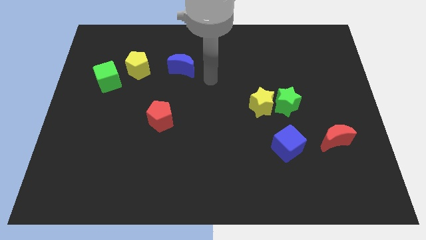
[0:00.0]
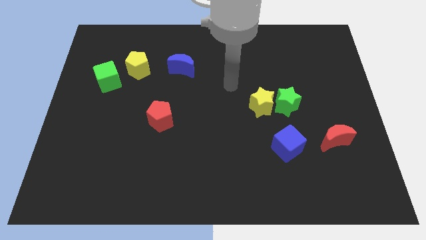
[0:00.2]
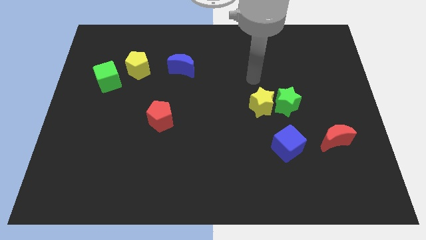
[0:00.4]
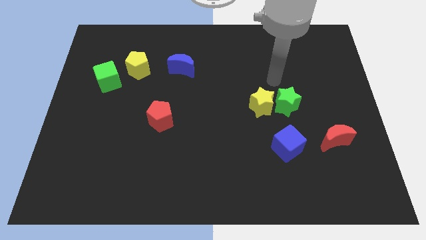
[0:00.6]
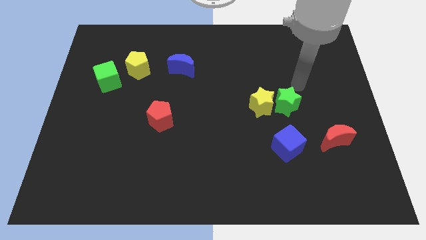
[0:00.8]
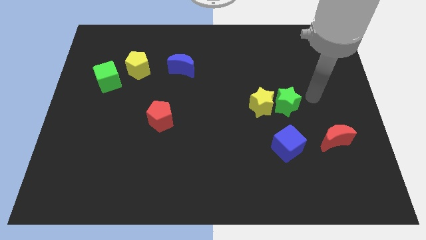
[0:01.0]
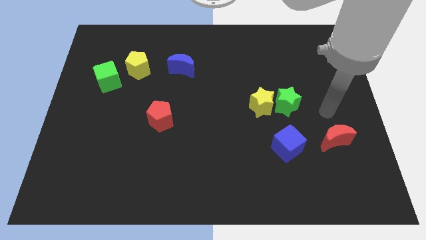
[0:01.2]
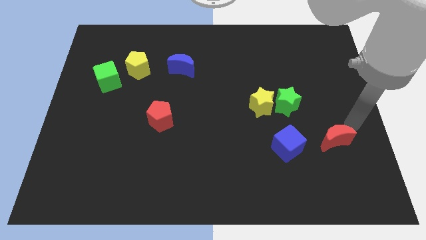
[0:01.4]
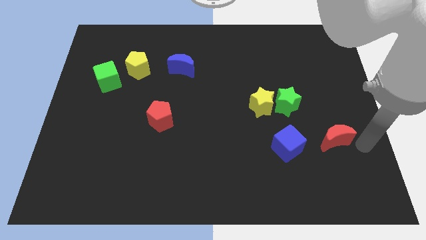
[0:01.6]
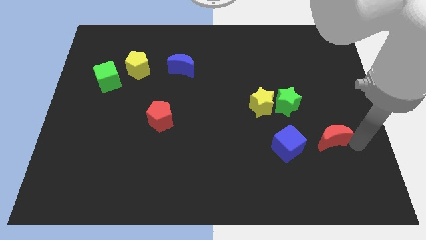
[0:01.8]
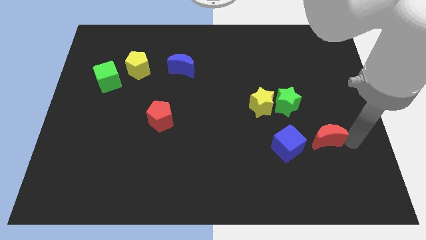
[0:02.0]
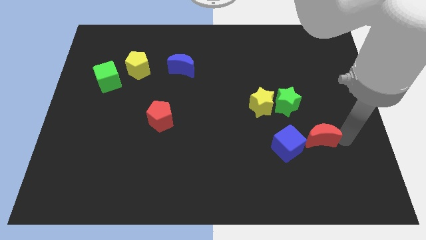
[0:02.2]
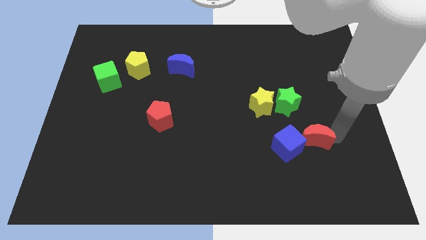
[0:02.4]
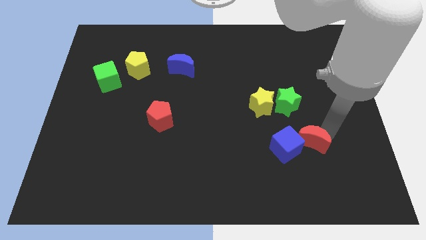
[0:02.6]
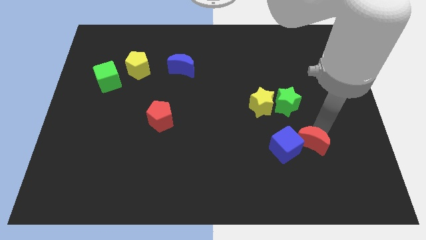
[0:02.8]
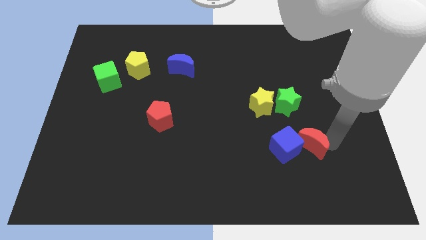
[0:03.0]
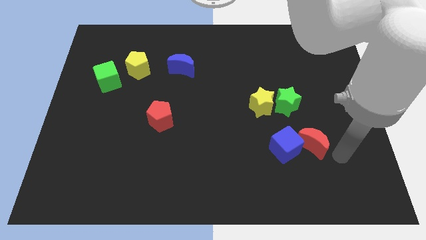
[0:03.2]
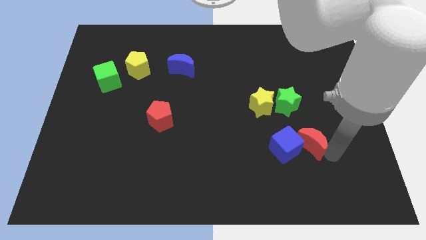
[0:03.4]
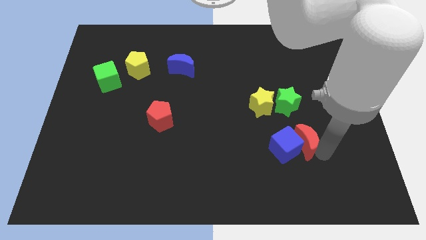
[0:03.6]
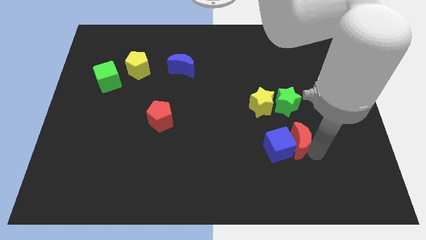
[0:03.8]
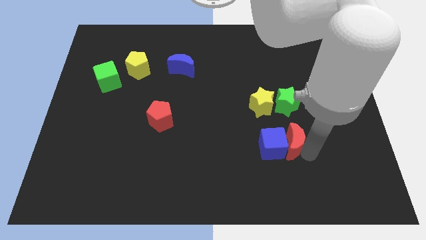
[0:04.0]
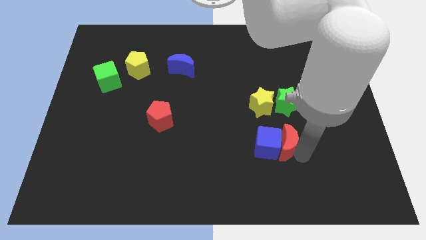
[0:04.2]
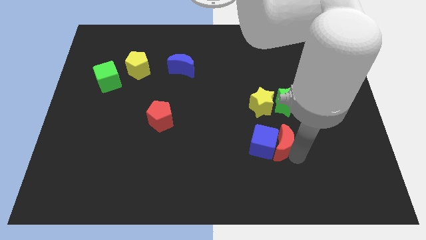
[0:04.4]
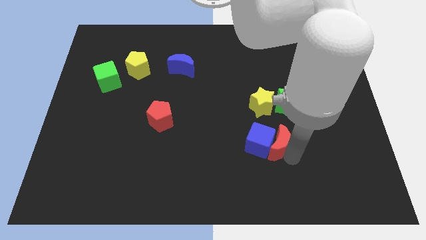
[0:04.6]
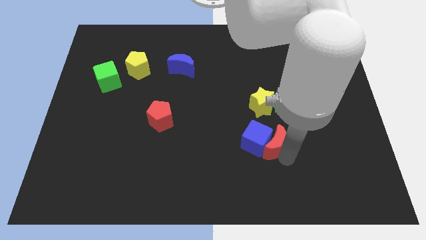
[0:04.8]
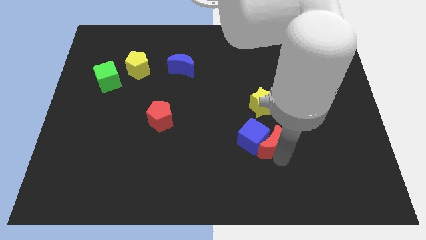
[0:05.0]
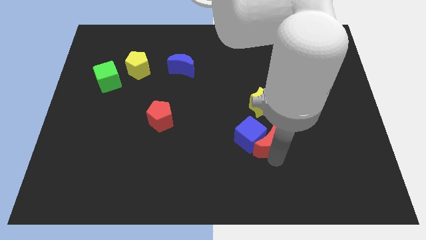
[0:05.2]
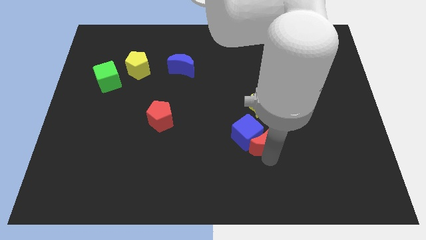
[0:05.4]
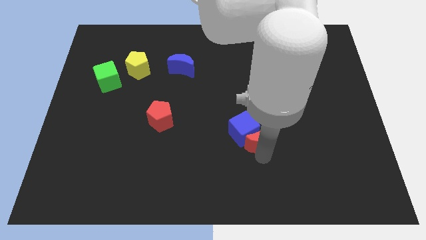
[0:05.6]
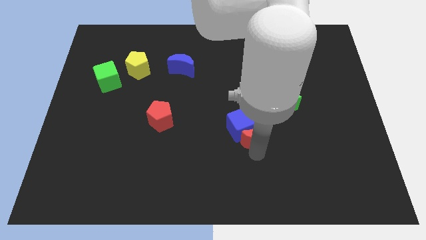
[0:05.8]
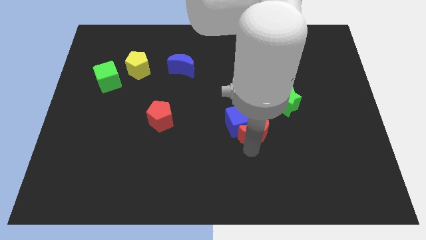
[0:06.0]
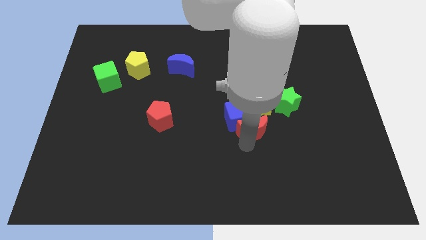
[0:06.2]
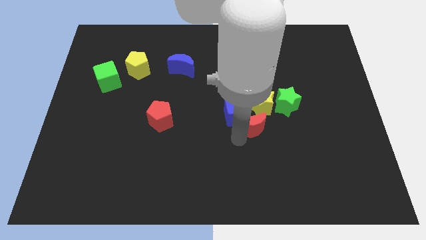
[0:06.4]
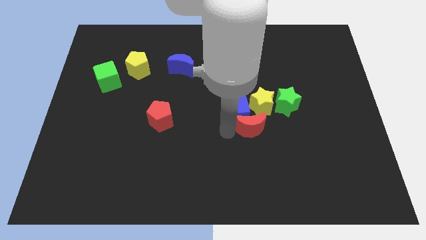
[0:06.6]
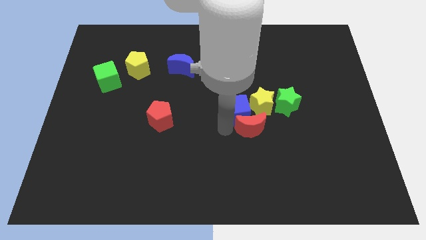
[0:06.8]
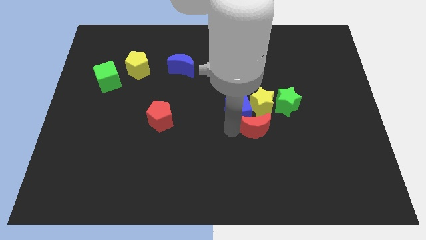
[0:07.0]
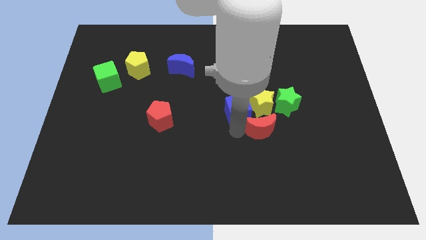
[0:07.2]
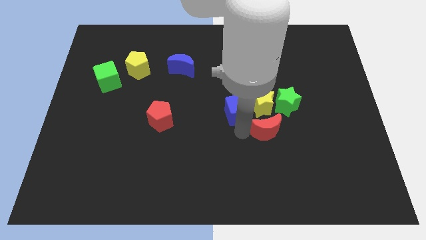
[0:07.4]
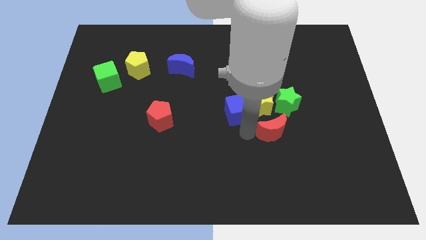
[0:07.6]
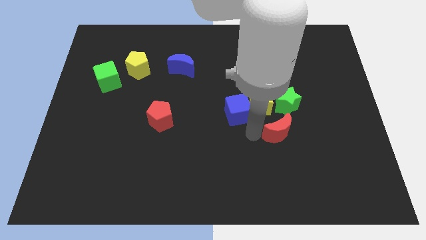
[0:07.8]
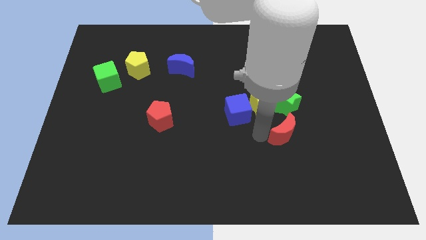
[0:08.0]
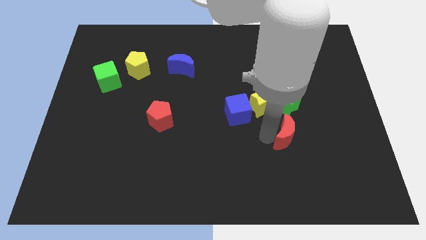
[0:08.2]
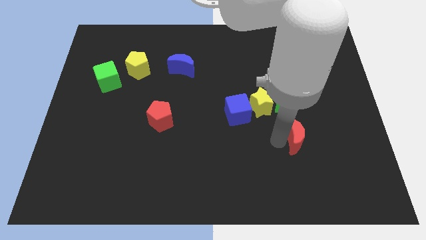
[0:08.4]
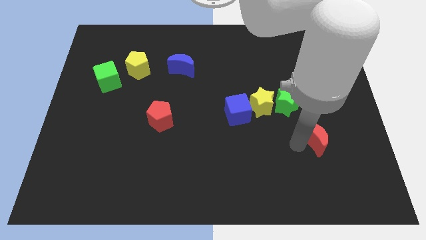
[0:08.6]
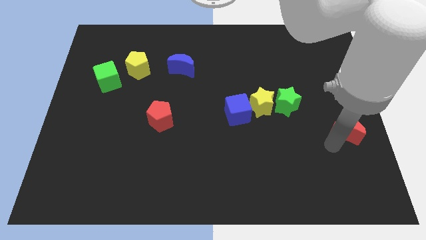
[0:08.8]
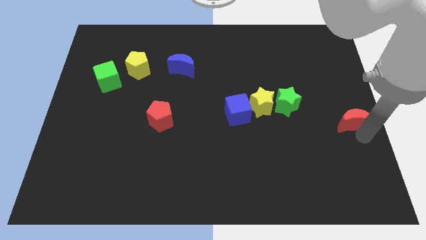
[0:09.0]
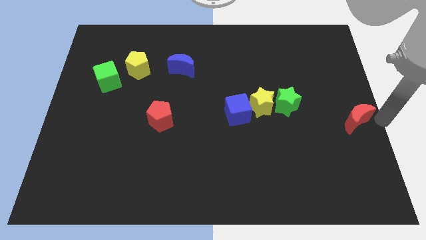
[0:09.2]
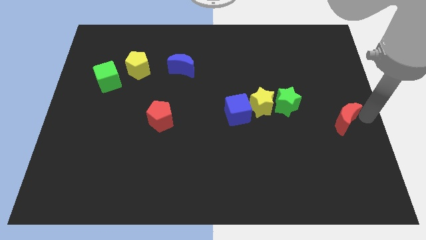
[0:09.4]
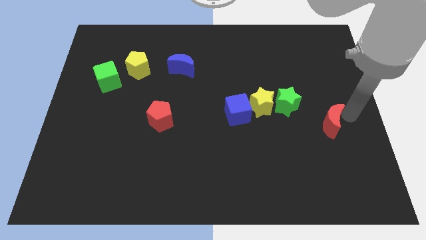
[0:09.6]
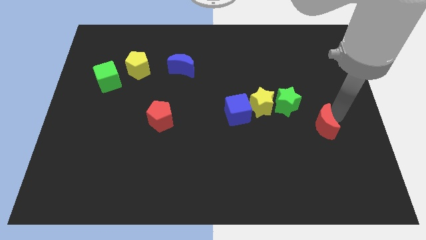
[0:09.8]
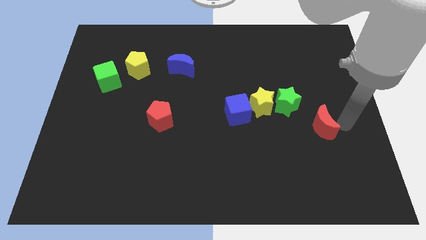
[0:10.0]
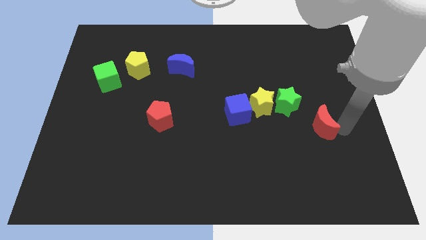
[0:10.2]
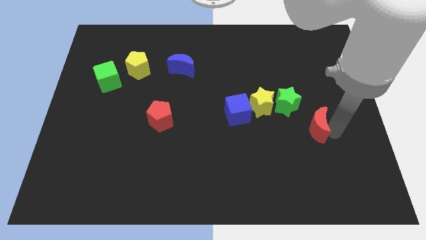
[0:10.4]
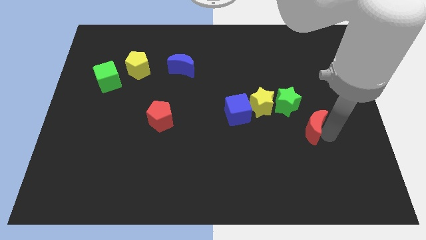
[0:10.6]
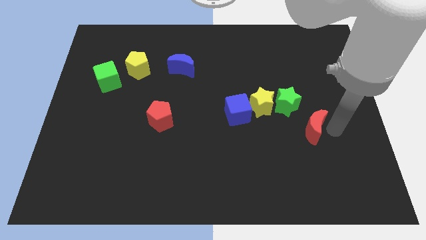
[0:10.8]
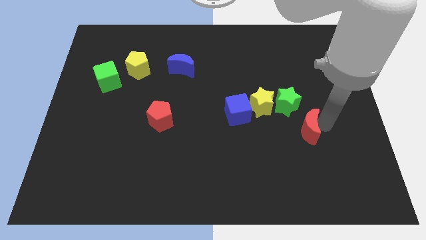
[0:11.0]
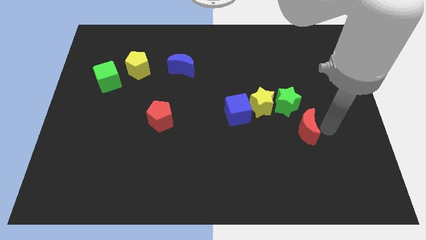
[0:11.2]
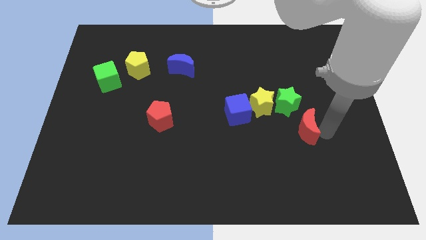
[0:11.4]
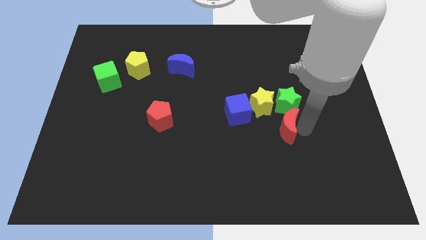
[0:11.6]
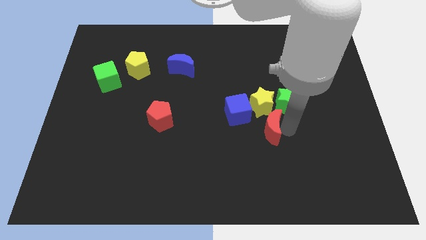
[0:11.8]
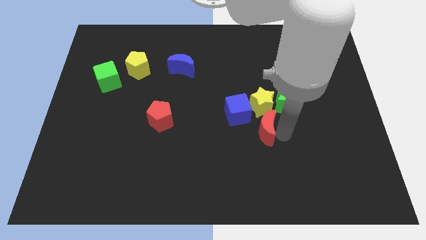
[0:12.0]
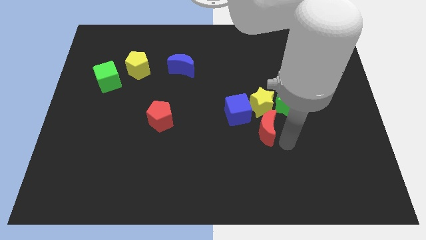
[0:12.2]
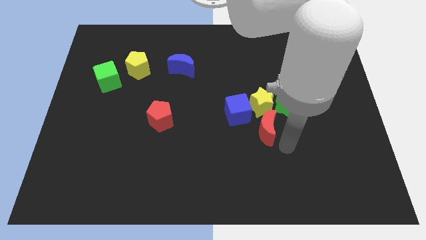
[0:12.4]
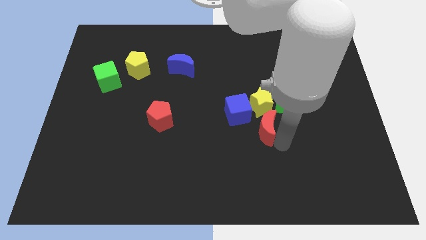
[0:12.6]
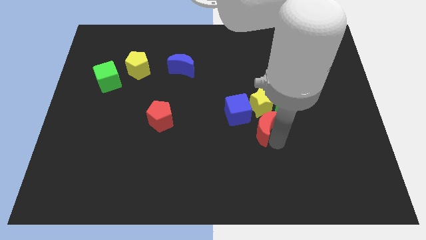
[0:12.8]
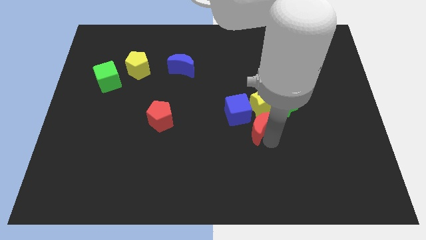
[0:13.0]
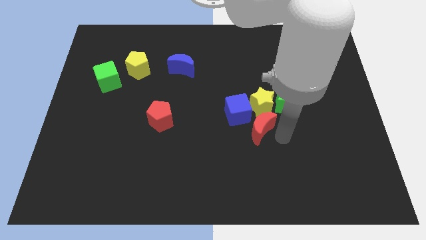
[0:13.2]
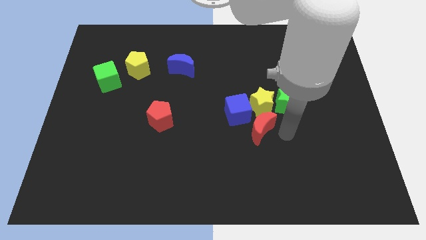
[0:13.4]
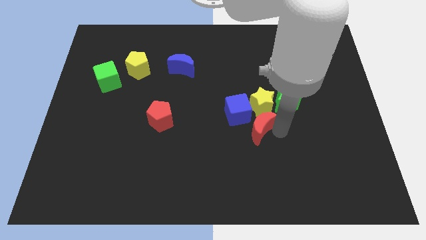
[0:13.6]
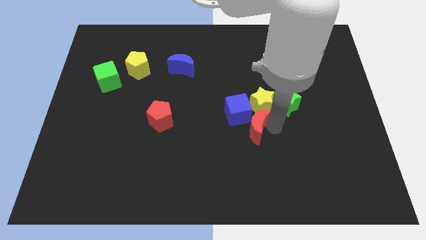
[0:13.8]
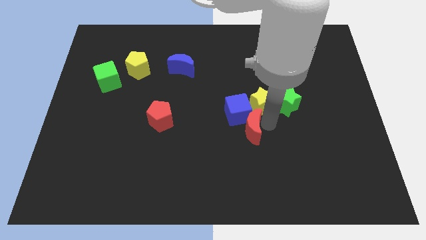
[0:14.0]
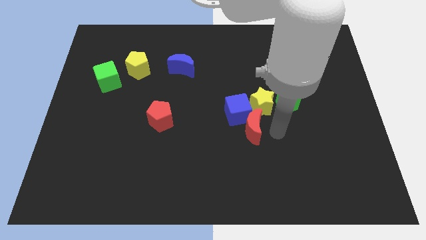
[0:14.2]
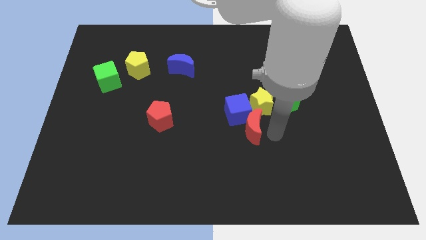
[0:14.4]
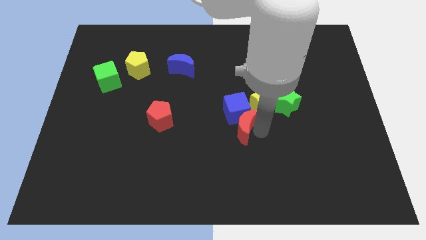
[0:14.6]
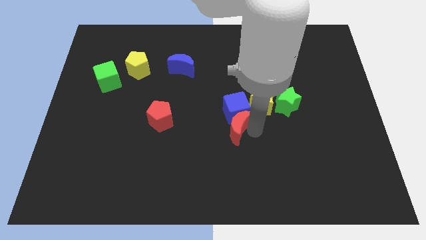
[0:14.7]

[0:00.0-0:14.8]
slide the red moon left

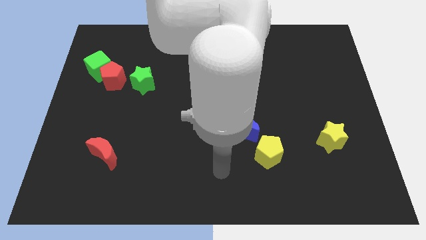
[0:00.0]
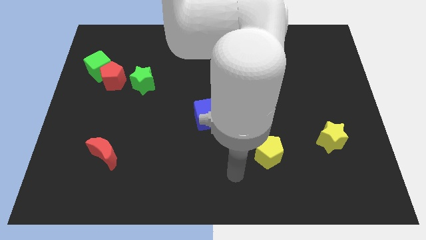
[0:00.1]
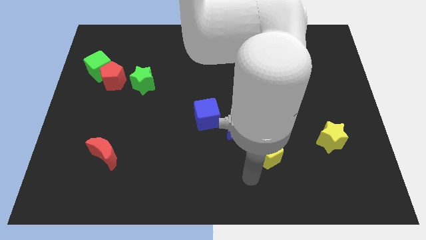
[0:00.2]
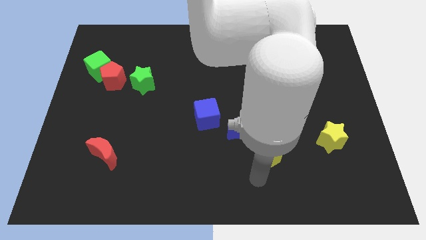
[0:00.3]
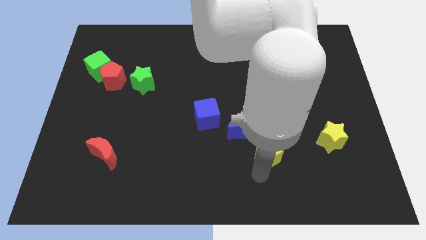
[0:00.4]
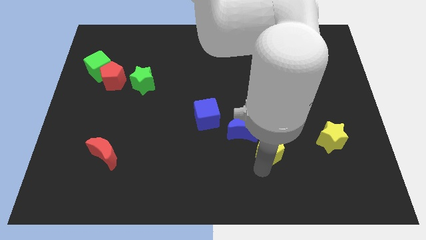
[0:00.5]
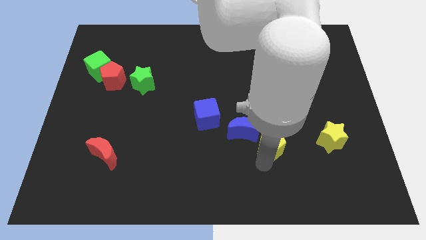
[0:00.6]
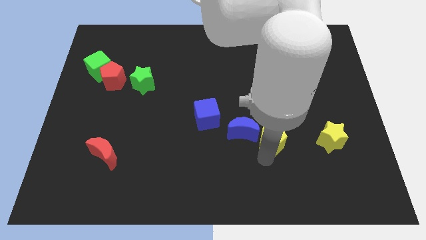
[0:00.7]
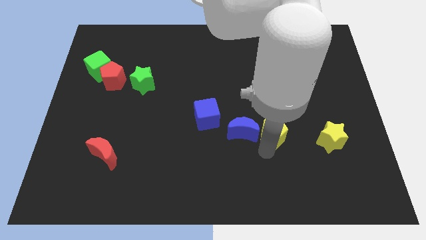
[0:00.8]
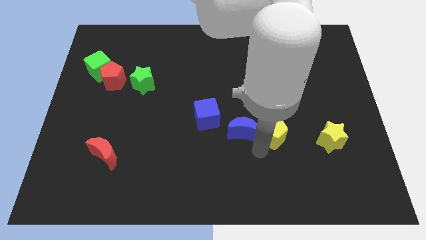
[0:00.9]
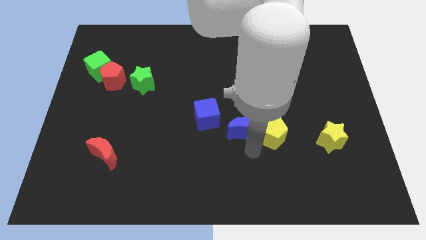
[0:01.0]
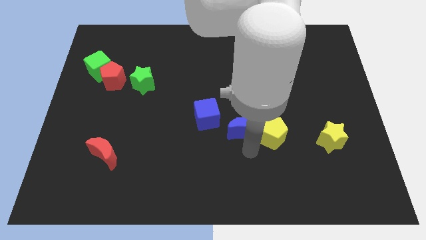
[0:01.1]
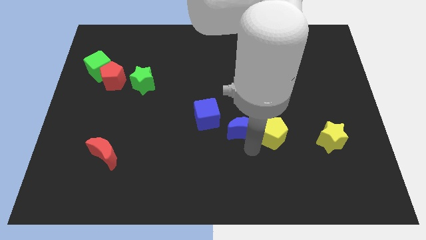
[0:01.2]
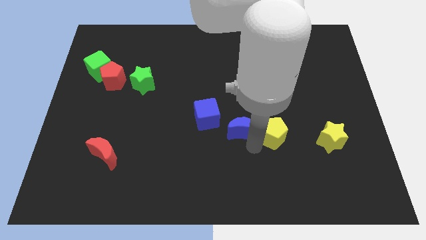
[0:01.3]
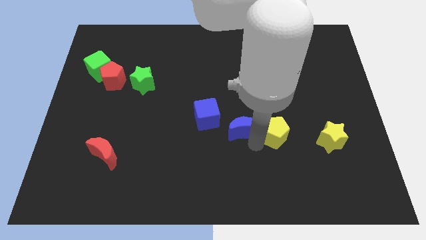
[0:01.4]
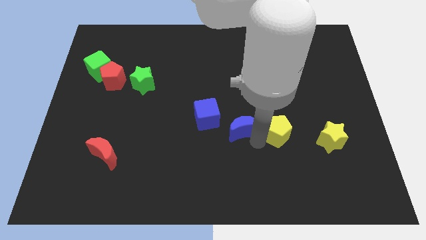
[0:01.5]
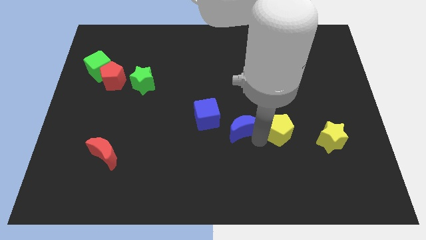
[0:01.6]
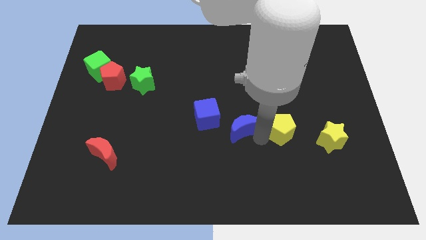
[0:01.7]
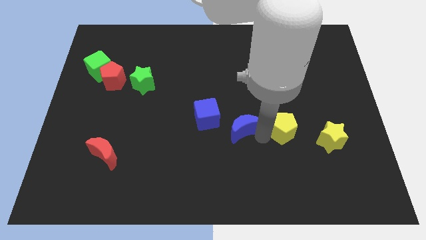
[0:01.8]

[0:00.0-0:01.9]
push the yellow pentagon a little diagonally upwards and right
